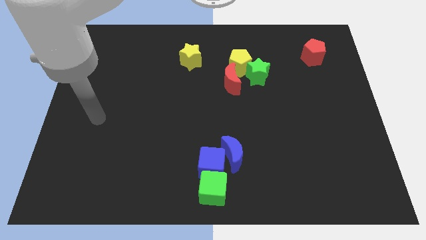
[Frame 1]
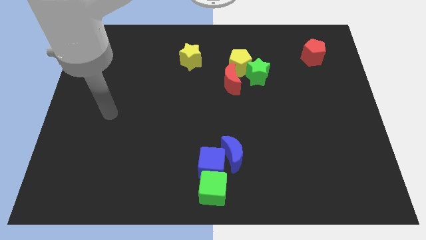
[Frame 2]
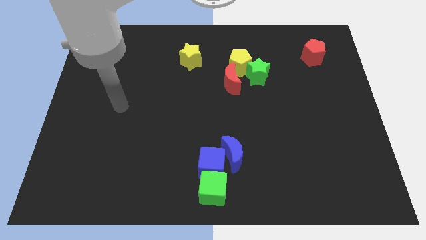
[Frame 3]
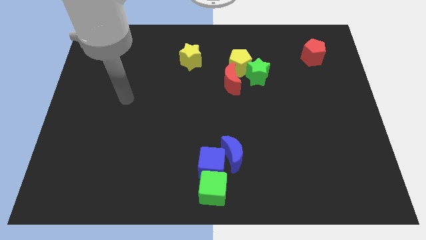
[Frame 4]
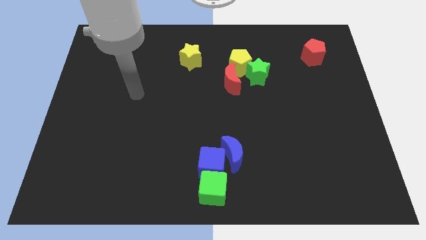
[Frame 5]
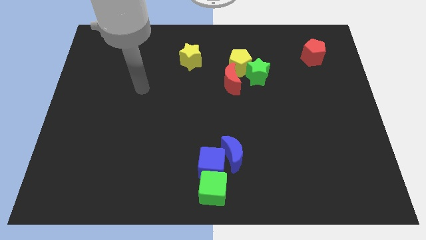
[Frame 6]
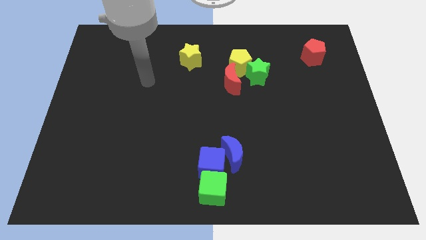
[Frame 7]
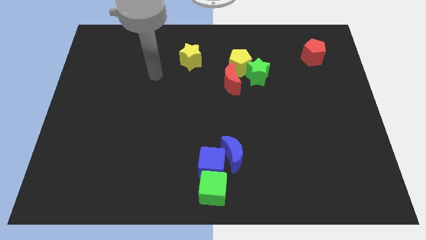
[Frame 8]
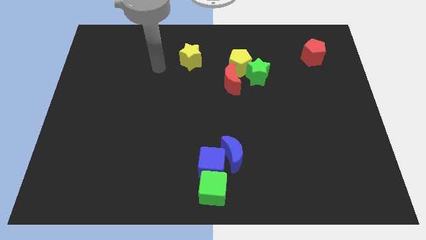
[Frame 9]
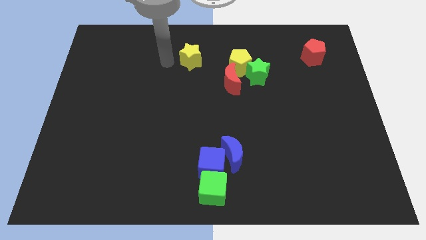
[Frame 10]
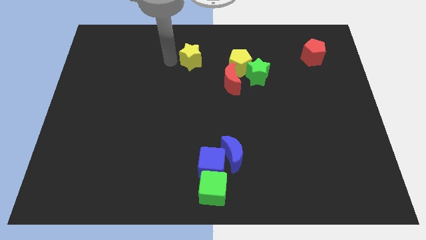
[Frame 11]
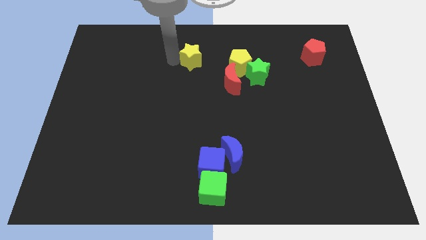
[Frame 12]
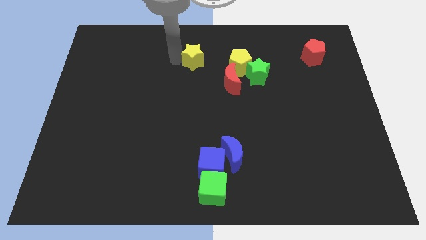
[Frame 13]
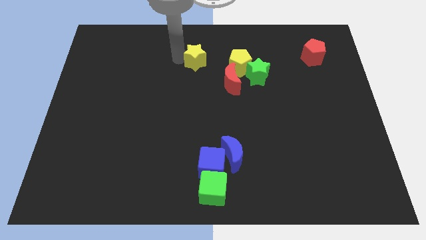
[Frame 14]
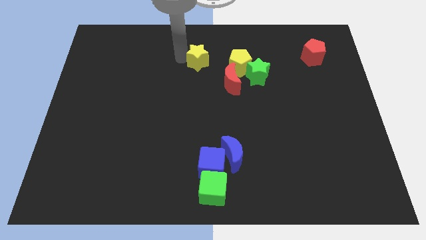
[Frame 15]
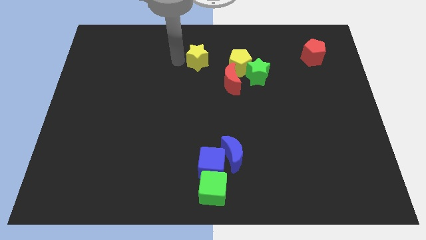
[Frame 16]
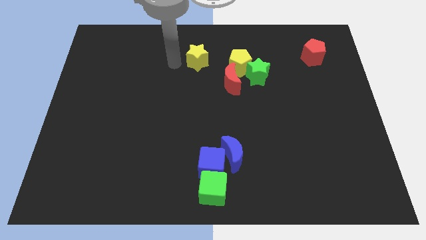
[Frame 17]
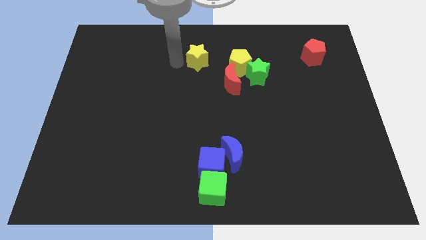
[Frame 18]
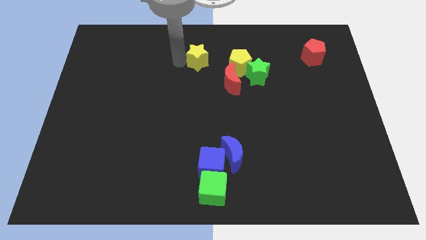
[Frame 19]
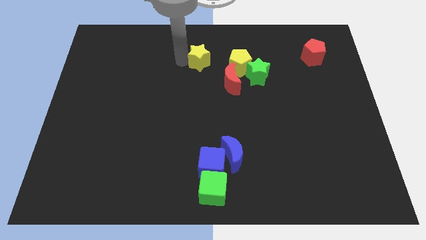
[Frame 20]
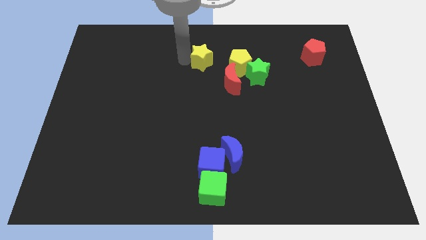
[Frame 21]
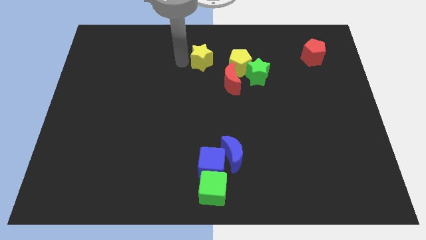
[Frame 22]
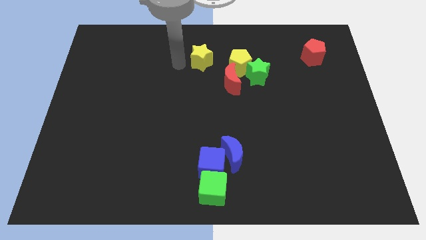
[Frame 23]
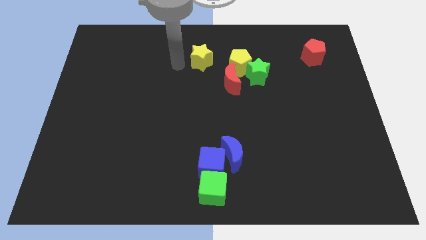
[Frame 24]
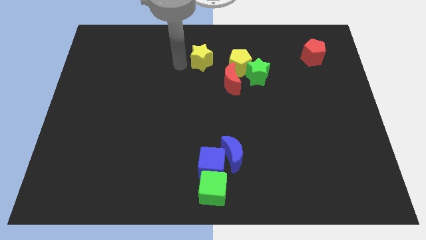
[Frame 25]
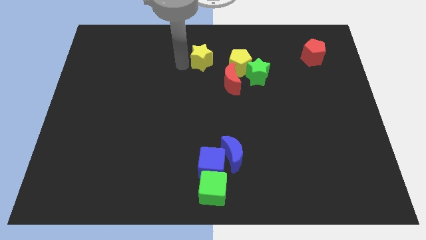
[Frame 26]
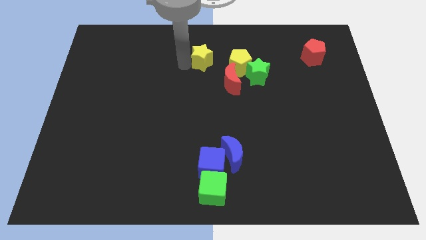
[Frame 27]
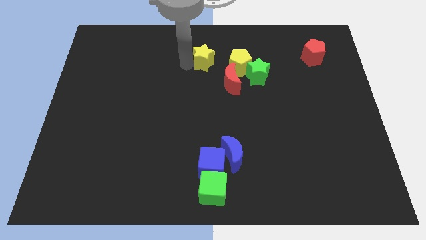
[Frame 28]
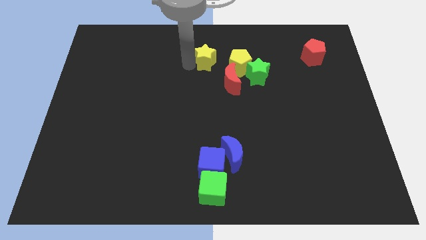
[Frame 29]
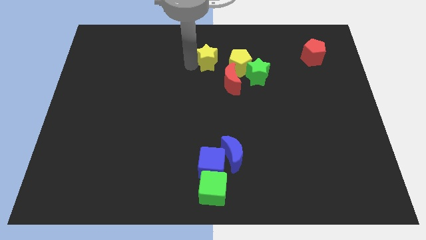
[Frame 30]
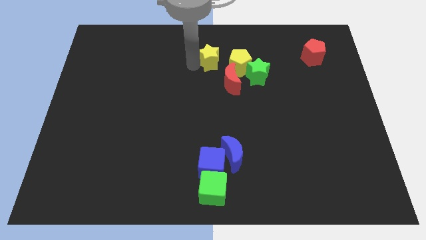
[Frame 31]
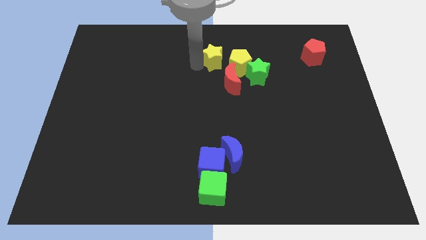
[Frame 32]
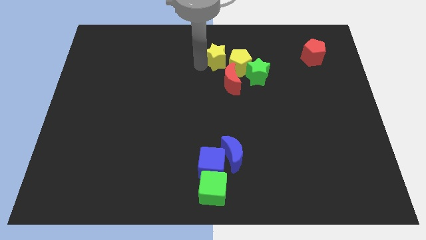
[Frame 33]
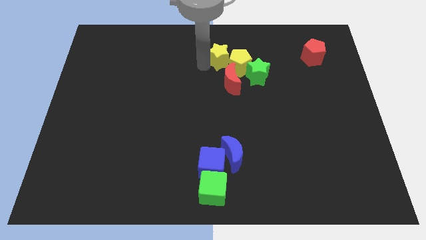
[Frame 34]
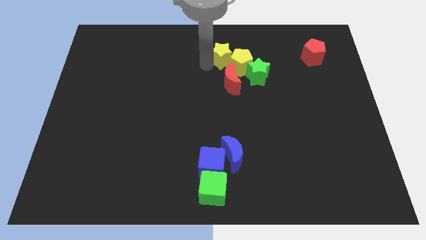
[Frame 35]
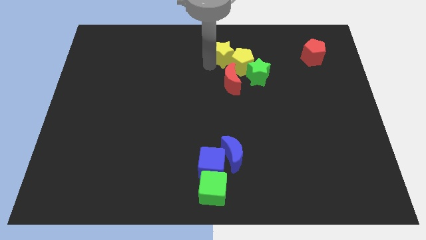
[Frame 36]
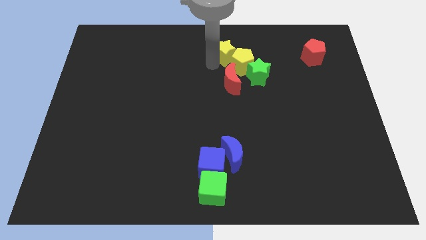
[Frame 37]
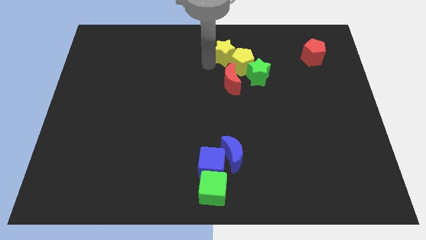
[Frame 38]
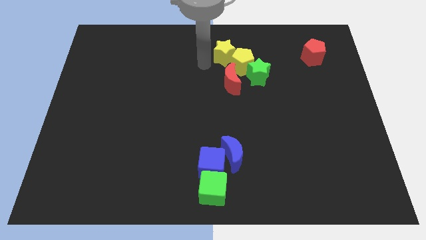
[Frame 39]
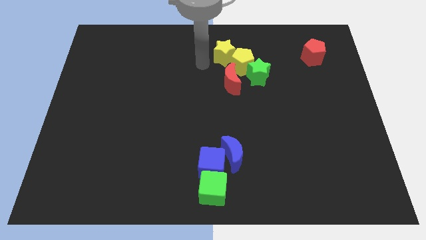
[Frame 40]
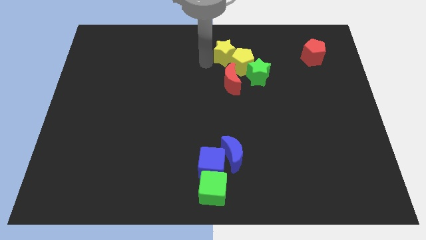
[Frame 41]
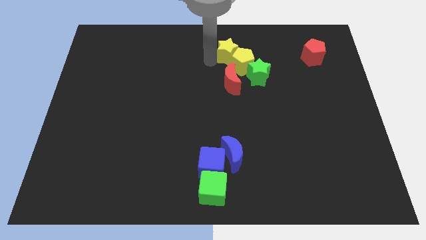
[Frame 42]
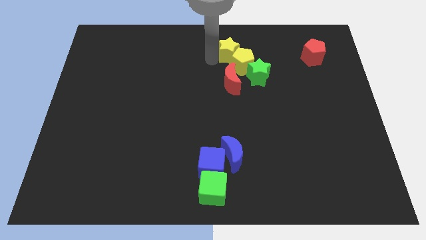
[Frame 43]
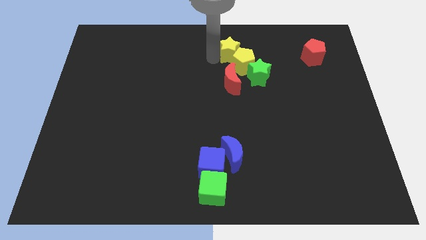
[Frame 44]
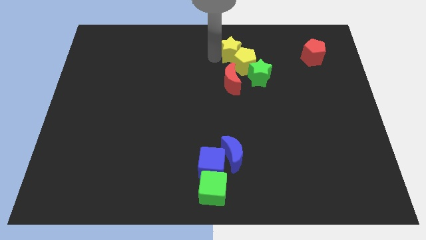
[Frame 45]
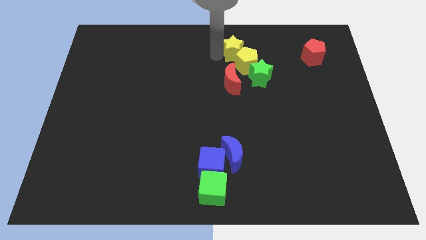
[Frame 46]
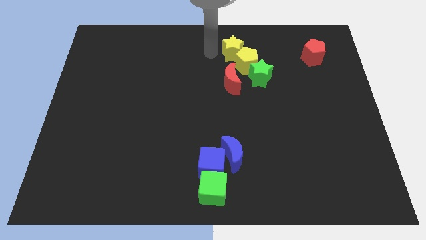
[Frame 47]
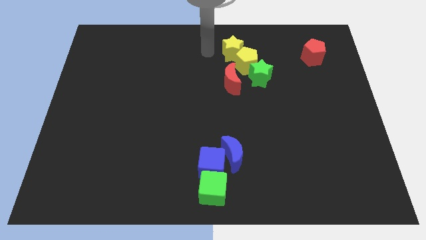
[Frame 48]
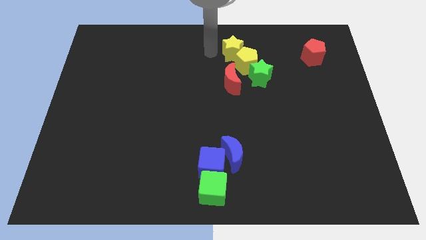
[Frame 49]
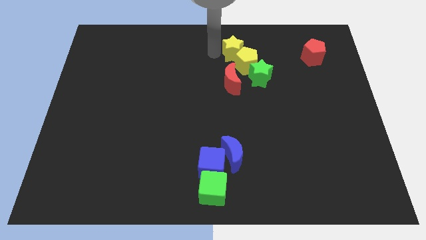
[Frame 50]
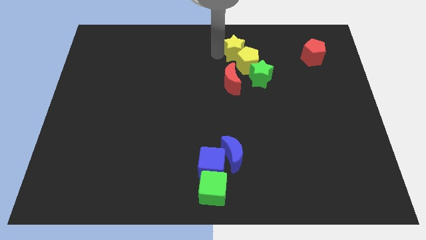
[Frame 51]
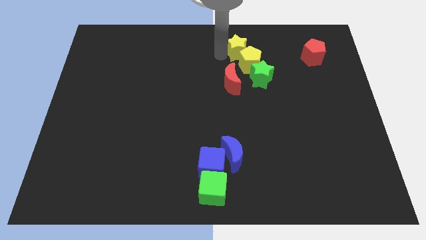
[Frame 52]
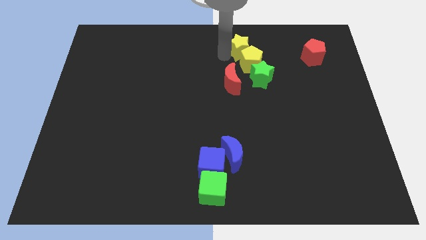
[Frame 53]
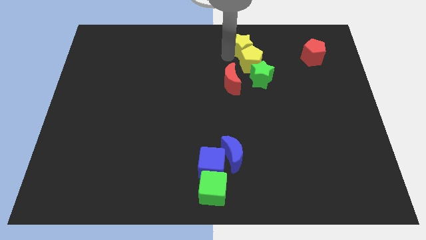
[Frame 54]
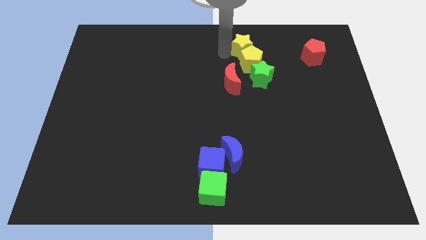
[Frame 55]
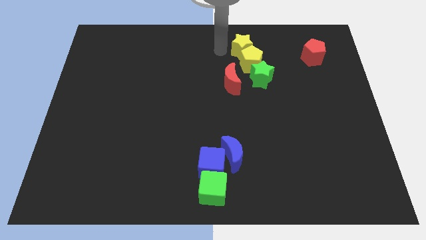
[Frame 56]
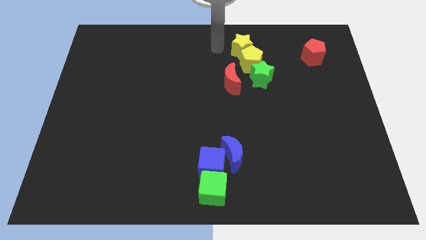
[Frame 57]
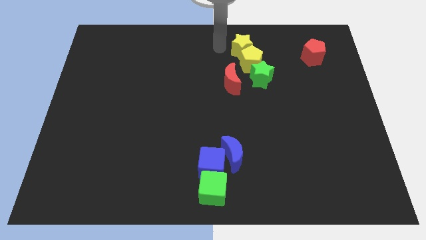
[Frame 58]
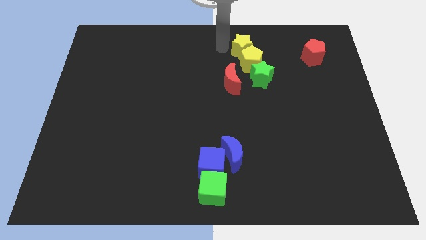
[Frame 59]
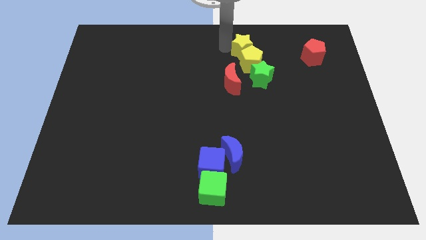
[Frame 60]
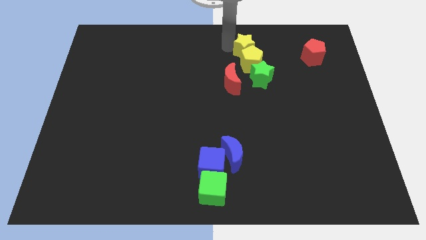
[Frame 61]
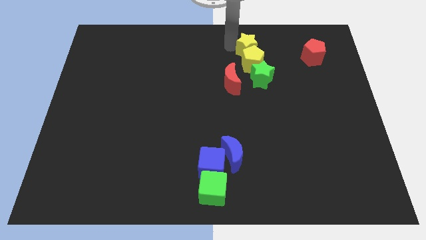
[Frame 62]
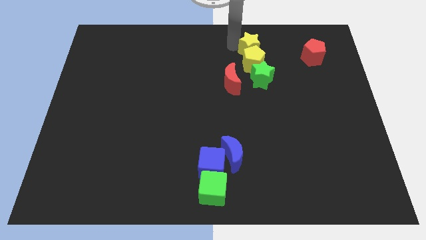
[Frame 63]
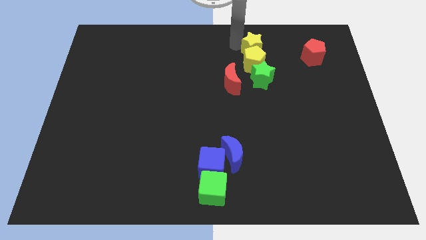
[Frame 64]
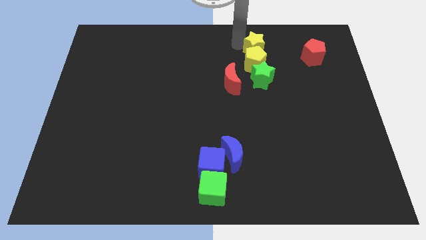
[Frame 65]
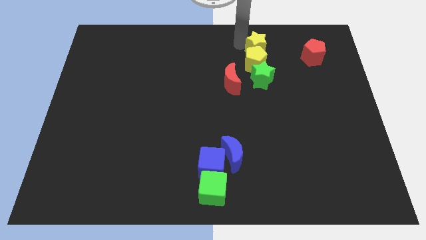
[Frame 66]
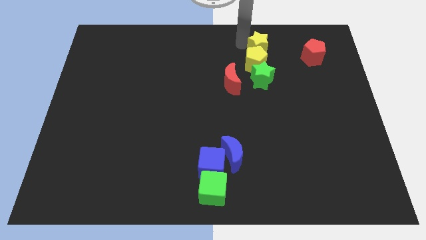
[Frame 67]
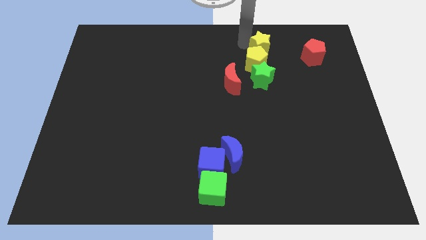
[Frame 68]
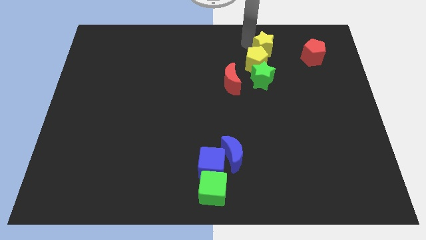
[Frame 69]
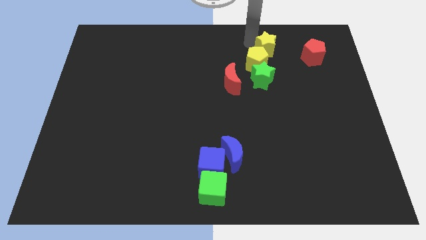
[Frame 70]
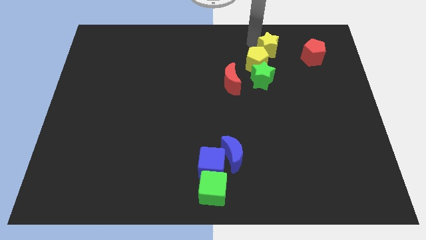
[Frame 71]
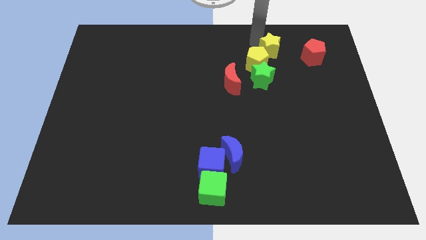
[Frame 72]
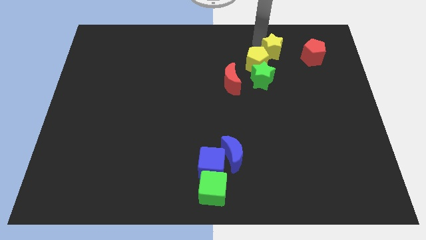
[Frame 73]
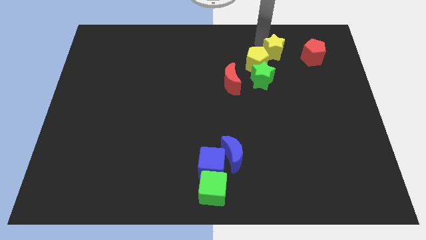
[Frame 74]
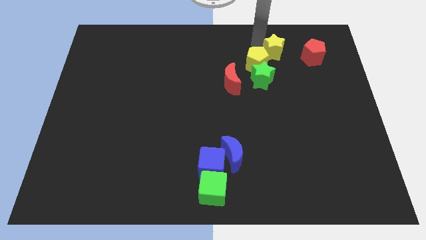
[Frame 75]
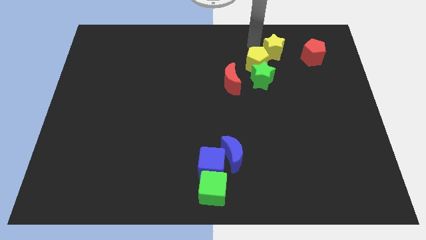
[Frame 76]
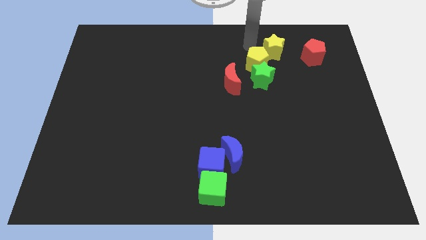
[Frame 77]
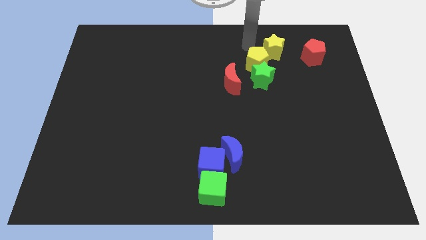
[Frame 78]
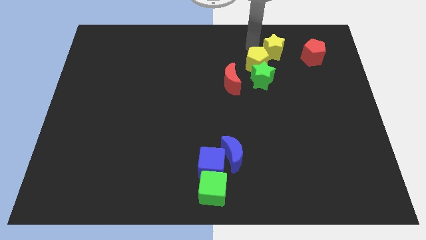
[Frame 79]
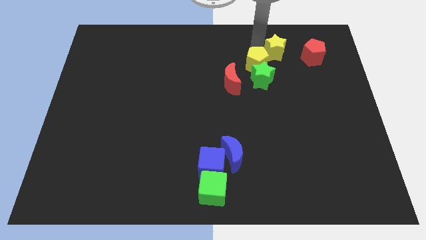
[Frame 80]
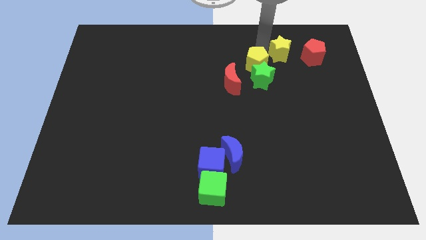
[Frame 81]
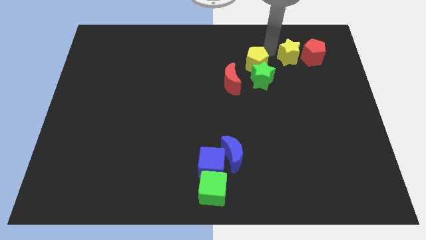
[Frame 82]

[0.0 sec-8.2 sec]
push the yellow star to the red pentagon
